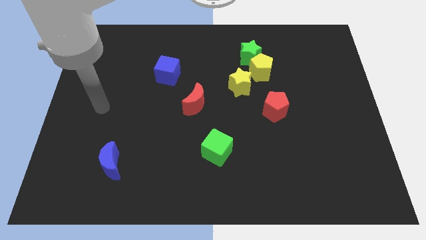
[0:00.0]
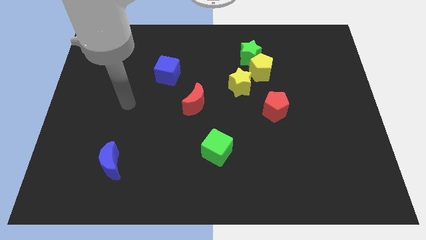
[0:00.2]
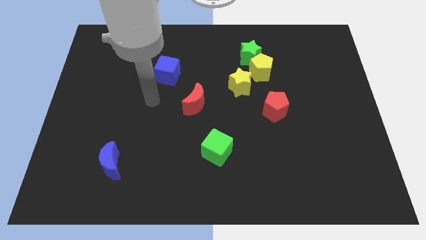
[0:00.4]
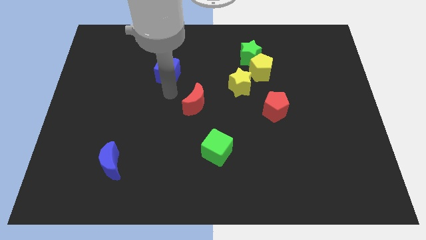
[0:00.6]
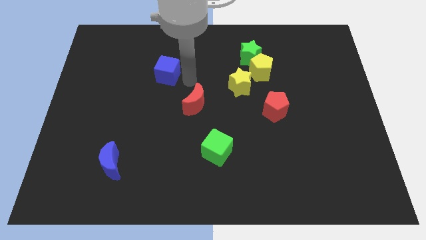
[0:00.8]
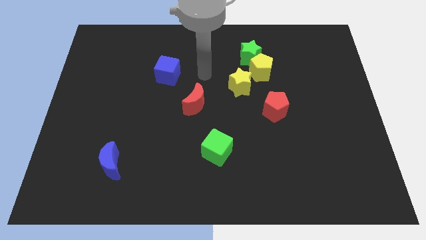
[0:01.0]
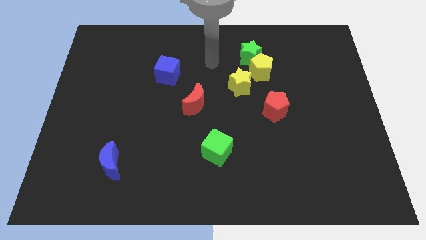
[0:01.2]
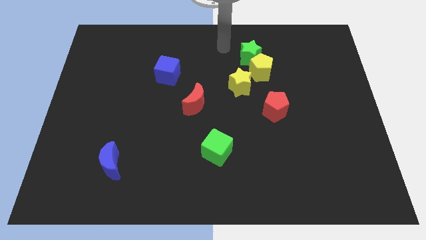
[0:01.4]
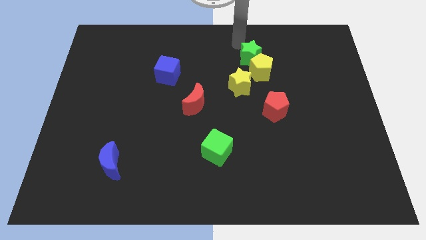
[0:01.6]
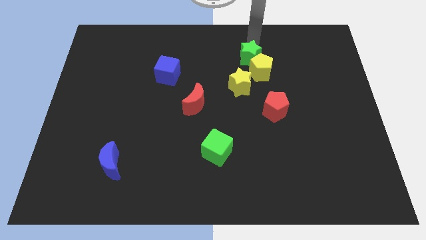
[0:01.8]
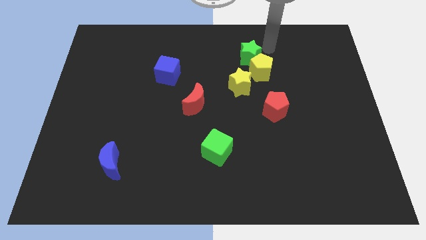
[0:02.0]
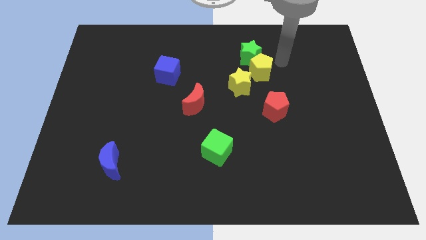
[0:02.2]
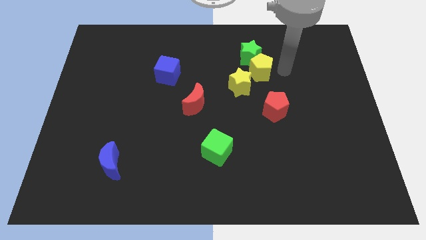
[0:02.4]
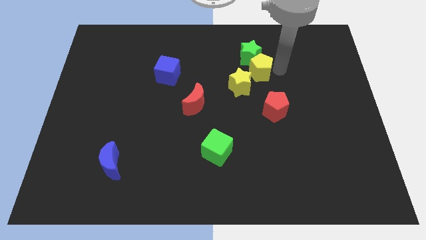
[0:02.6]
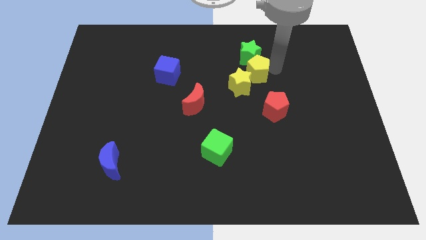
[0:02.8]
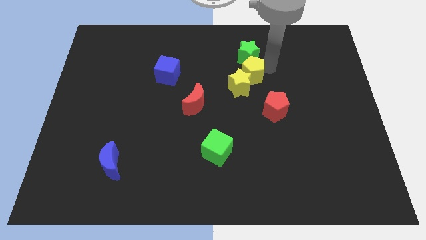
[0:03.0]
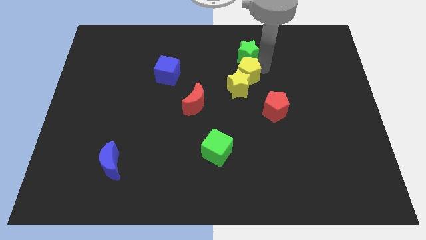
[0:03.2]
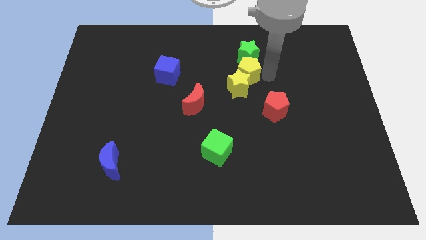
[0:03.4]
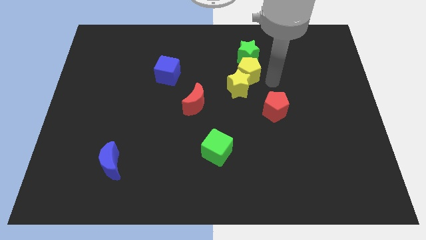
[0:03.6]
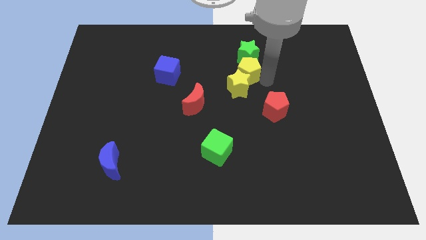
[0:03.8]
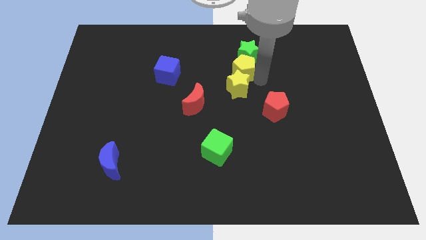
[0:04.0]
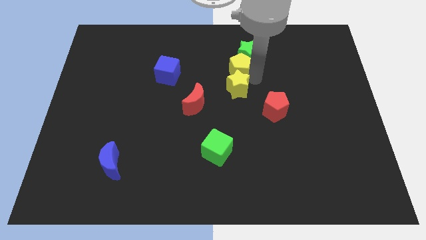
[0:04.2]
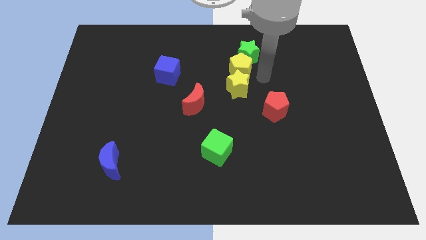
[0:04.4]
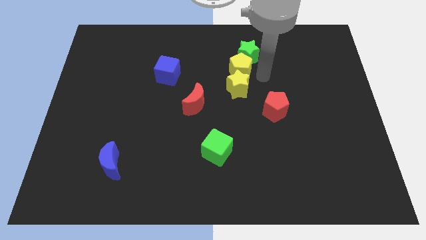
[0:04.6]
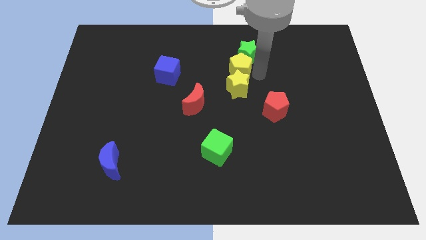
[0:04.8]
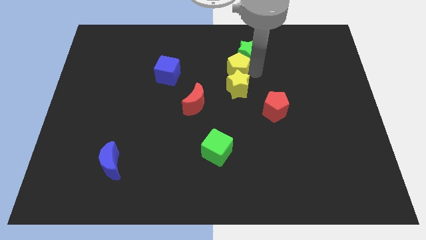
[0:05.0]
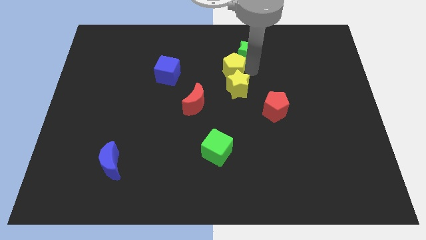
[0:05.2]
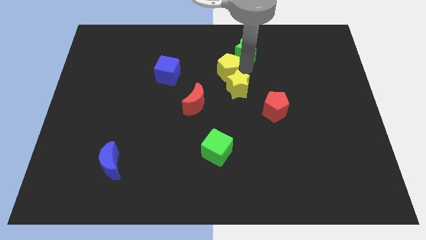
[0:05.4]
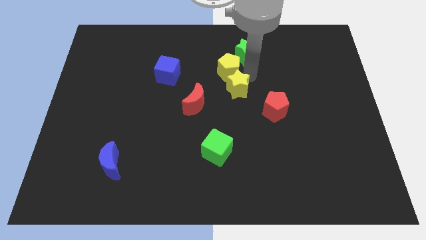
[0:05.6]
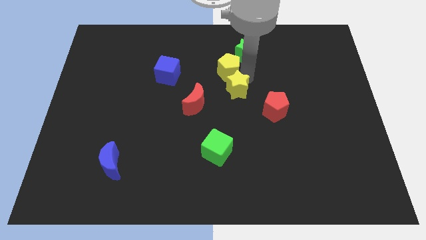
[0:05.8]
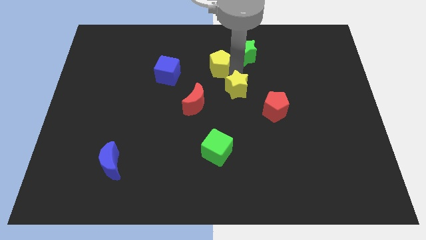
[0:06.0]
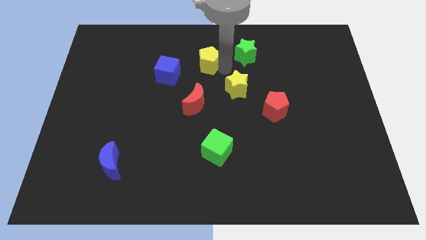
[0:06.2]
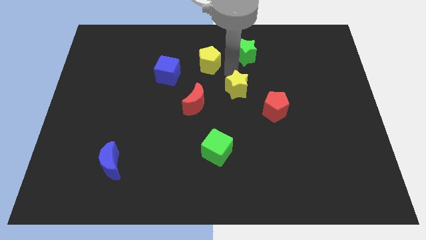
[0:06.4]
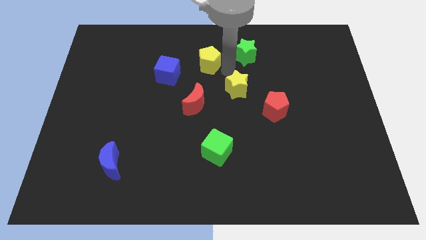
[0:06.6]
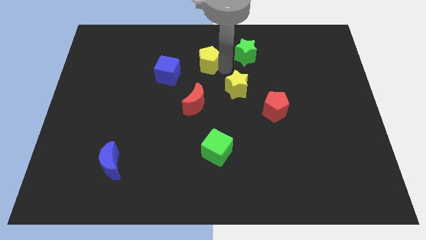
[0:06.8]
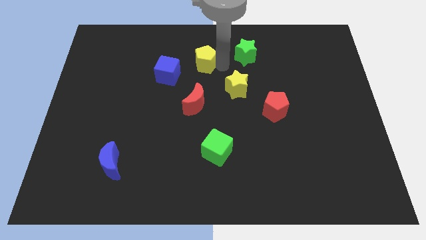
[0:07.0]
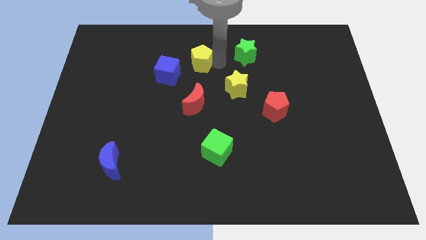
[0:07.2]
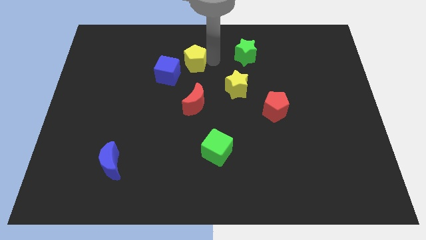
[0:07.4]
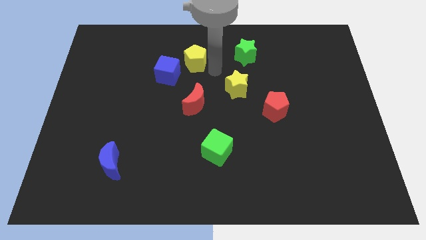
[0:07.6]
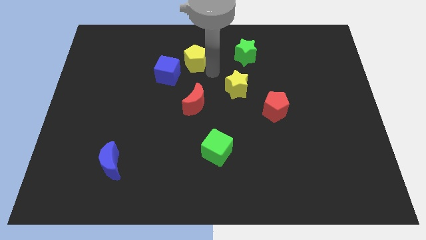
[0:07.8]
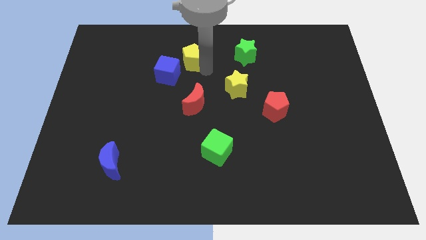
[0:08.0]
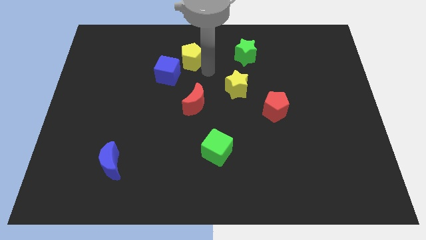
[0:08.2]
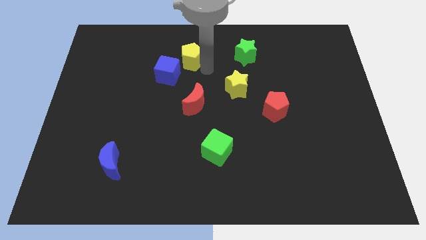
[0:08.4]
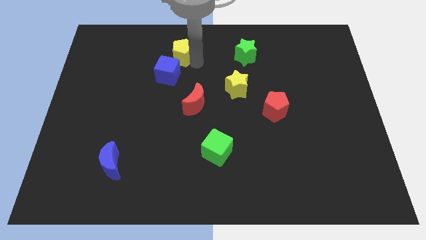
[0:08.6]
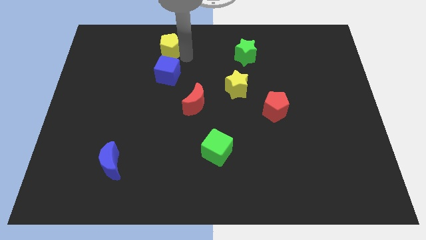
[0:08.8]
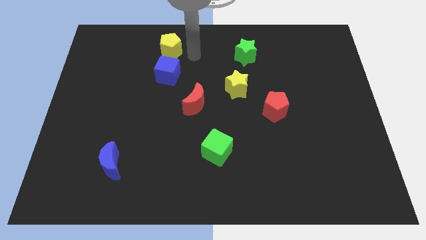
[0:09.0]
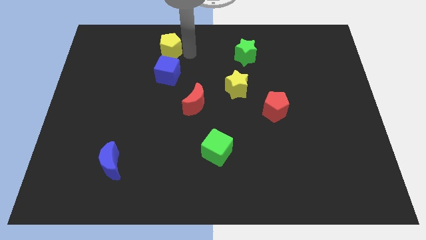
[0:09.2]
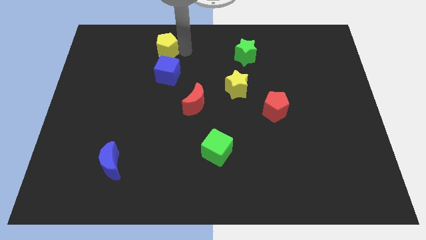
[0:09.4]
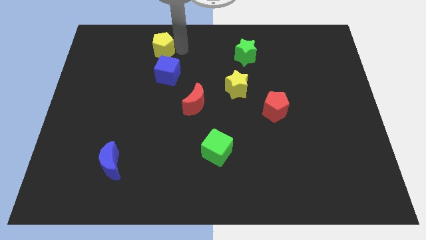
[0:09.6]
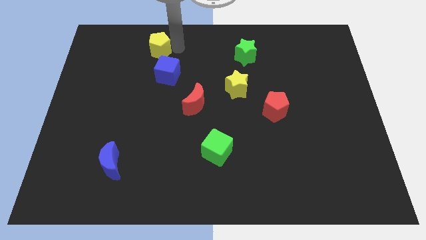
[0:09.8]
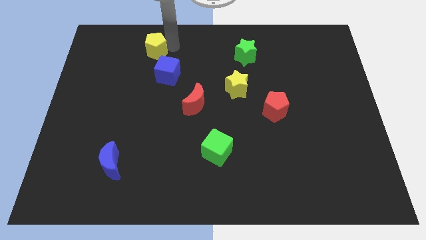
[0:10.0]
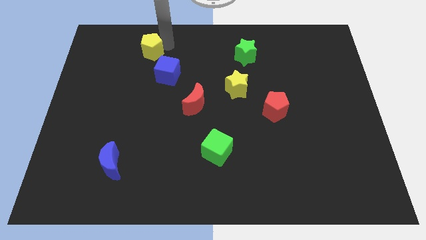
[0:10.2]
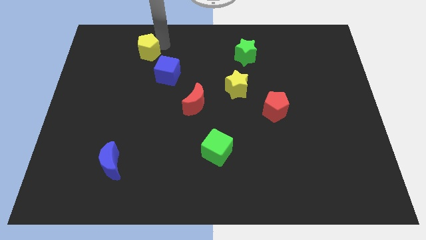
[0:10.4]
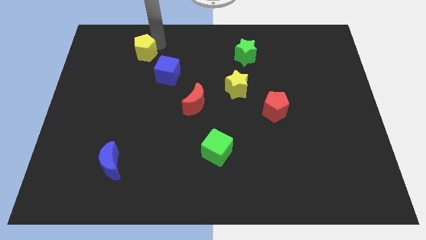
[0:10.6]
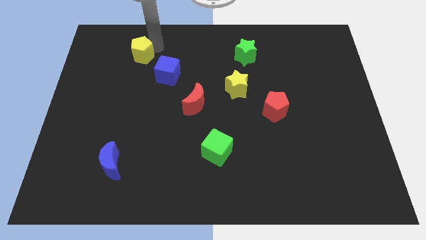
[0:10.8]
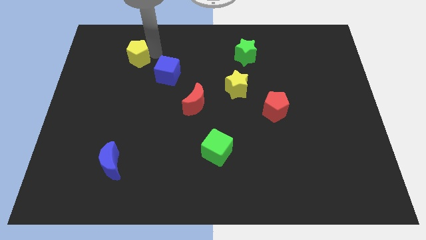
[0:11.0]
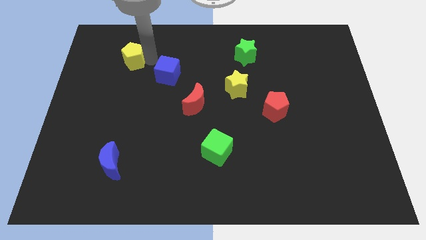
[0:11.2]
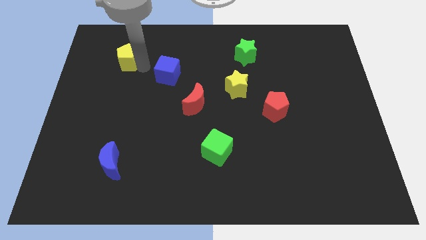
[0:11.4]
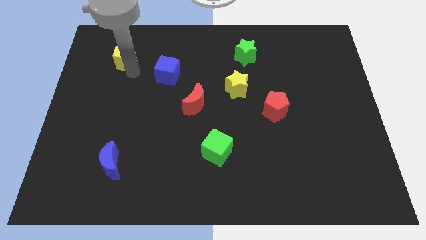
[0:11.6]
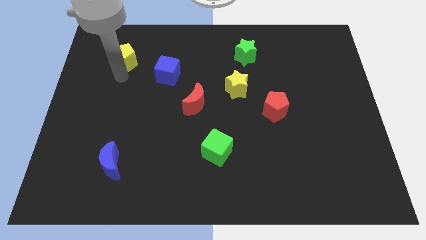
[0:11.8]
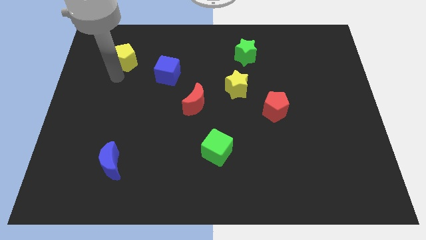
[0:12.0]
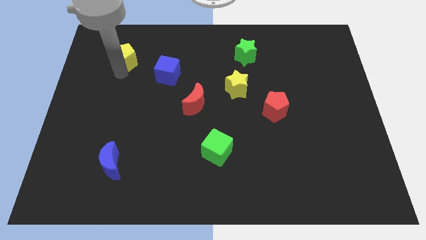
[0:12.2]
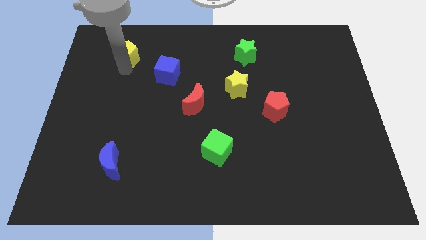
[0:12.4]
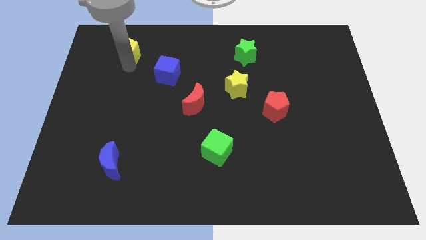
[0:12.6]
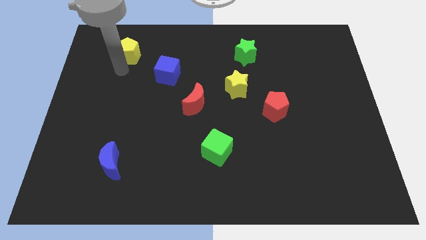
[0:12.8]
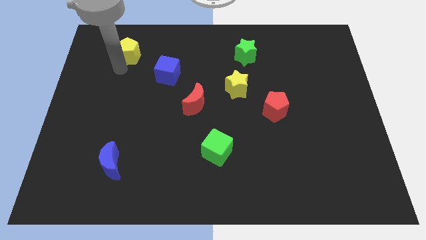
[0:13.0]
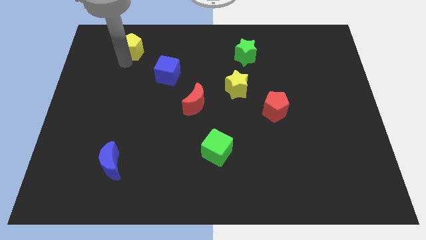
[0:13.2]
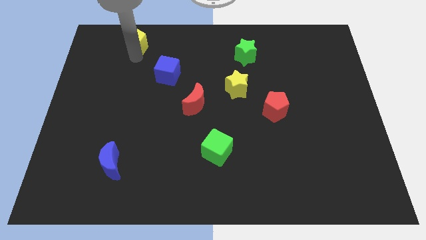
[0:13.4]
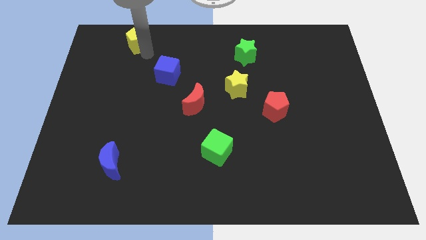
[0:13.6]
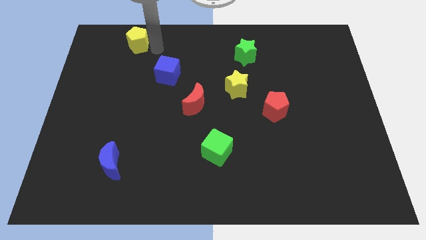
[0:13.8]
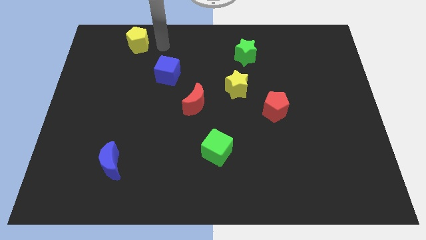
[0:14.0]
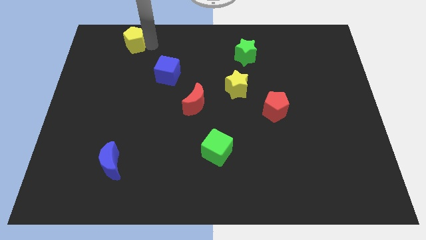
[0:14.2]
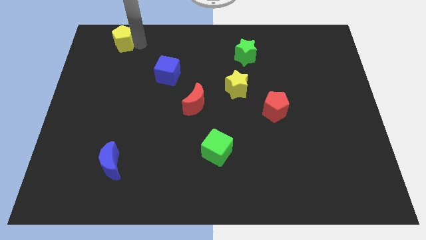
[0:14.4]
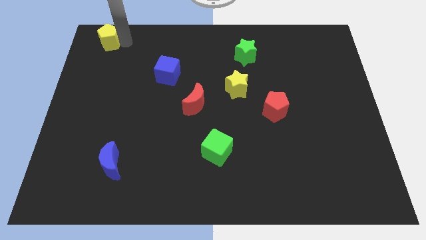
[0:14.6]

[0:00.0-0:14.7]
put the yellow pentagon to the top left corner
